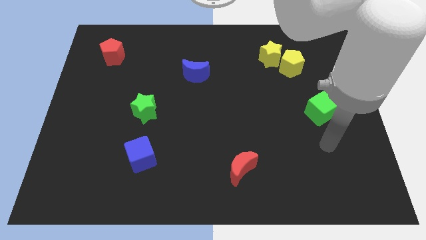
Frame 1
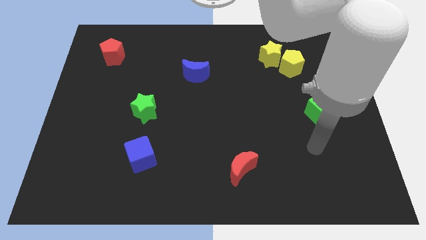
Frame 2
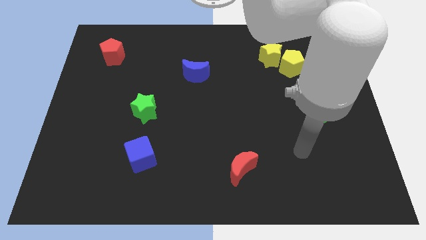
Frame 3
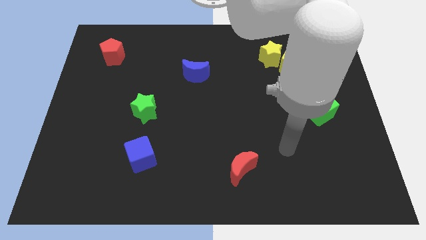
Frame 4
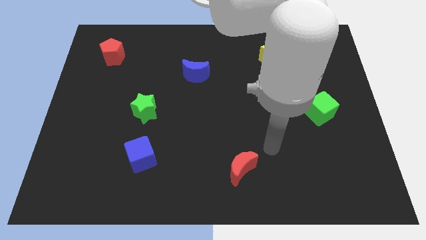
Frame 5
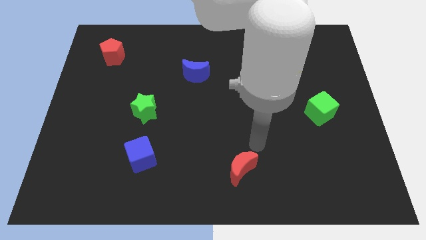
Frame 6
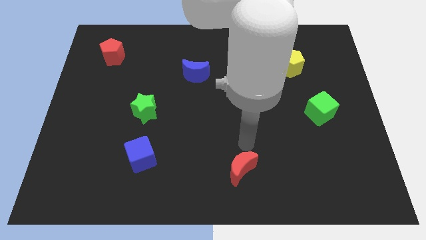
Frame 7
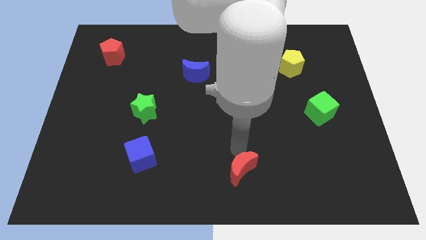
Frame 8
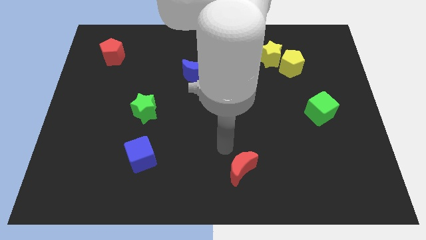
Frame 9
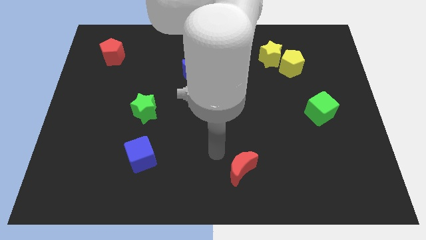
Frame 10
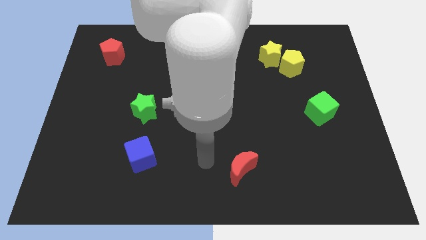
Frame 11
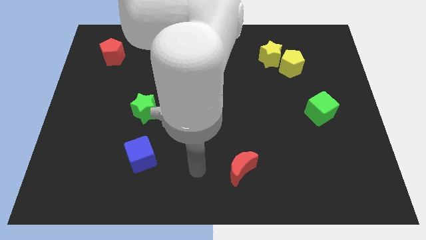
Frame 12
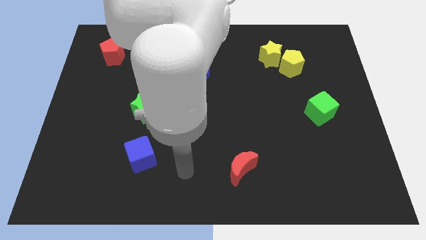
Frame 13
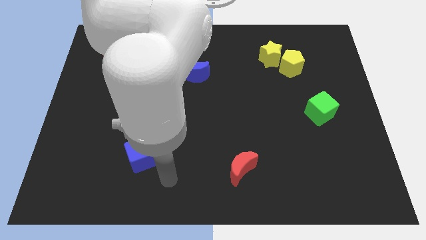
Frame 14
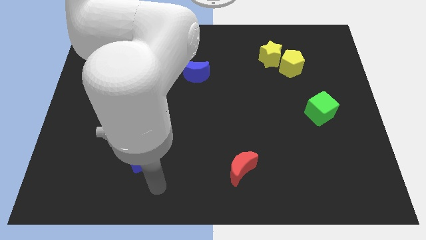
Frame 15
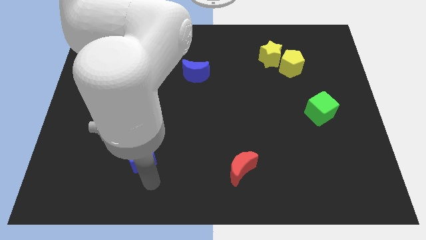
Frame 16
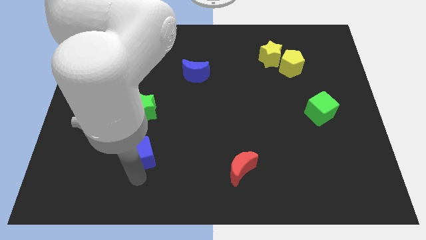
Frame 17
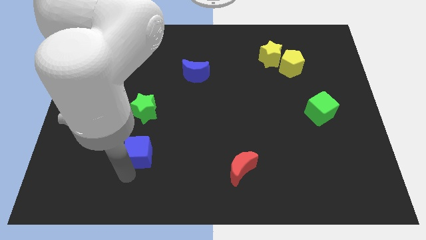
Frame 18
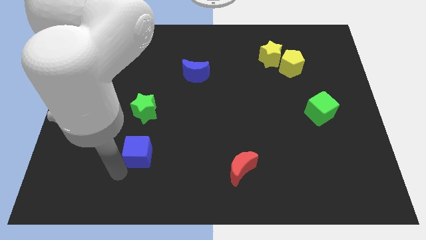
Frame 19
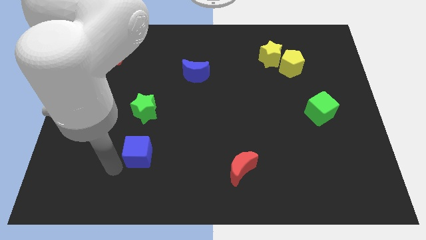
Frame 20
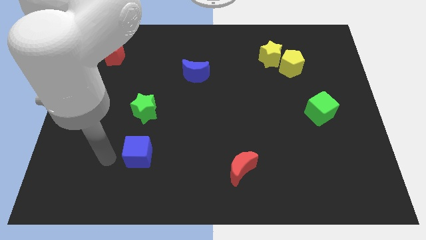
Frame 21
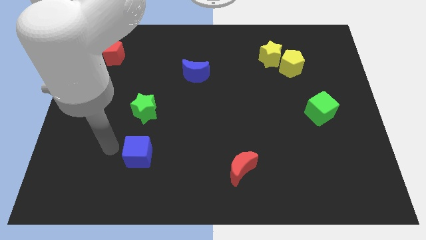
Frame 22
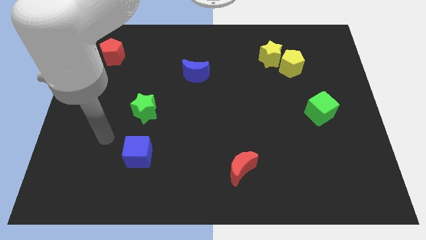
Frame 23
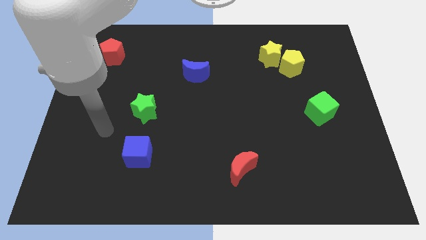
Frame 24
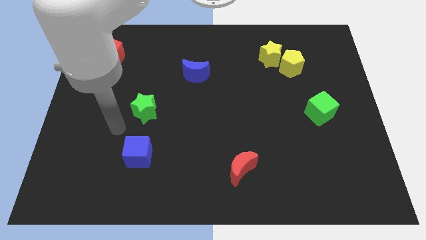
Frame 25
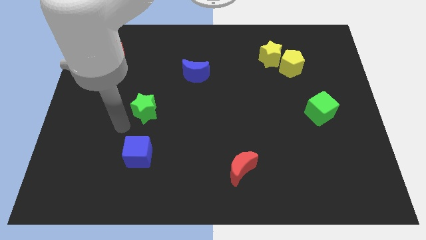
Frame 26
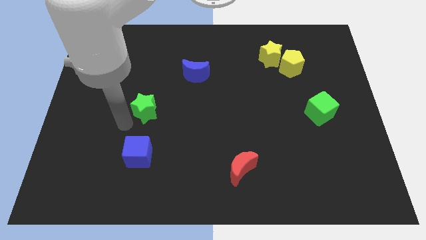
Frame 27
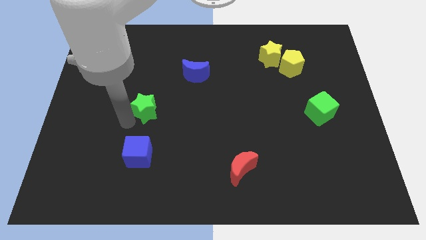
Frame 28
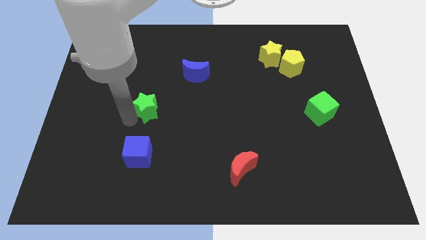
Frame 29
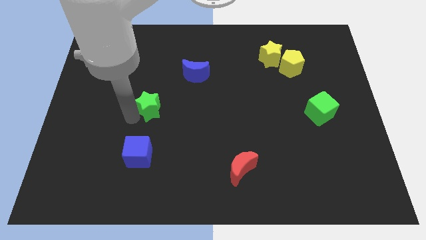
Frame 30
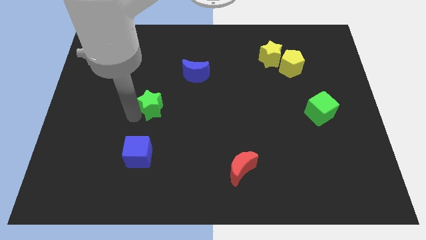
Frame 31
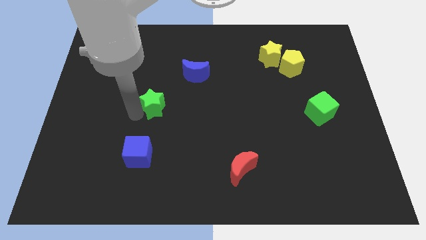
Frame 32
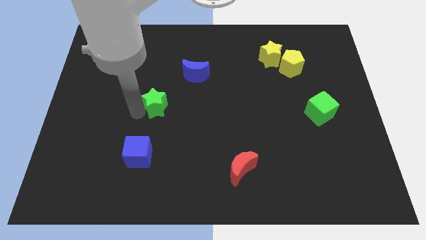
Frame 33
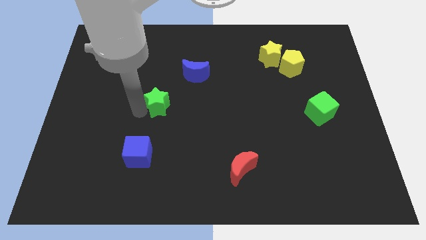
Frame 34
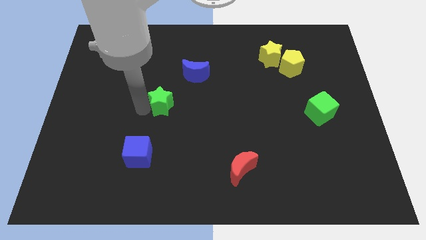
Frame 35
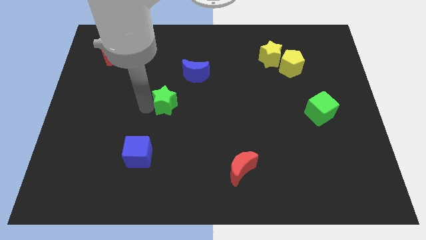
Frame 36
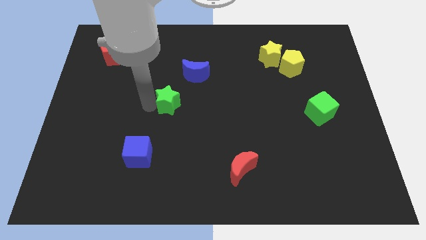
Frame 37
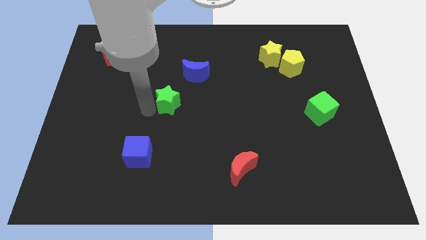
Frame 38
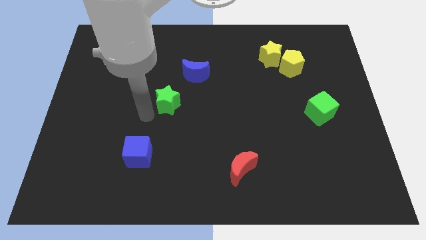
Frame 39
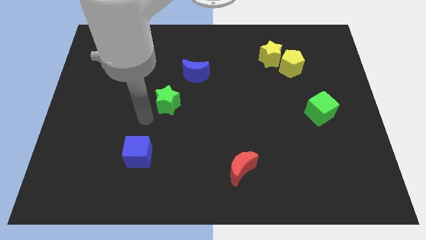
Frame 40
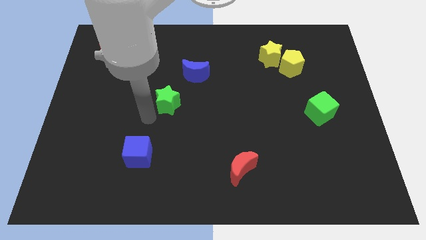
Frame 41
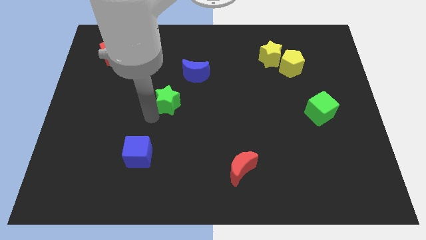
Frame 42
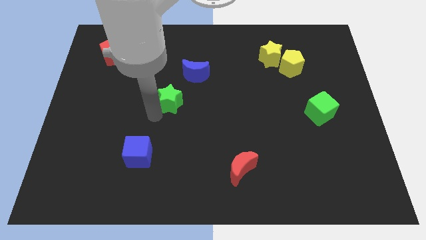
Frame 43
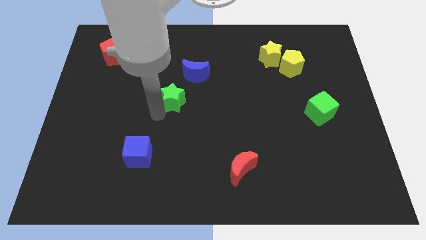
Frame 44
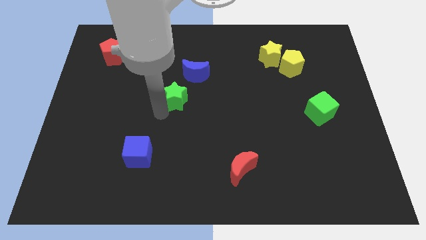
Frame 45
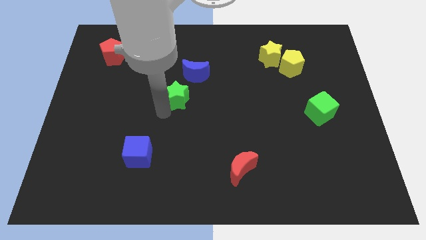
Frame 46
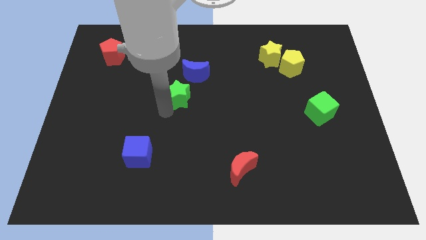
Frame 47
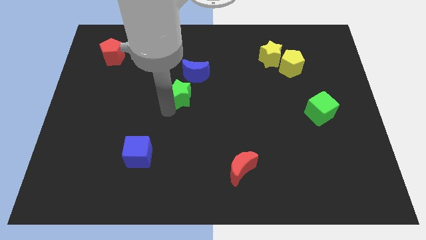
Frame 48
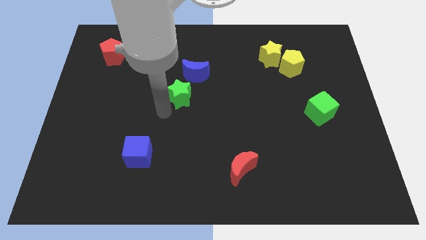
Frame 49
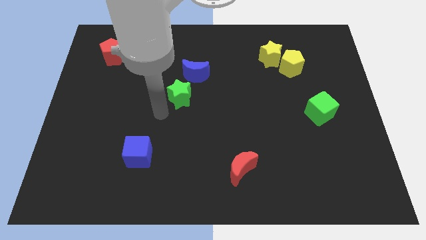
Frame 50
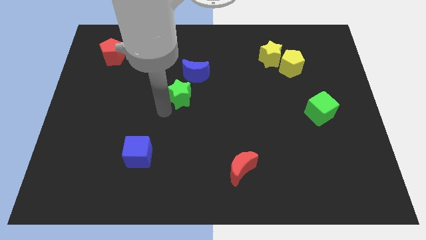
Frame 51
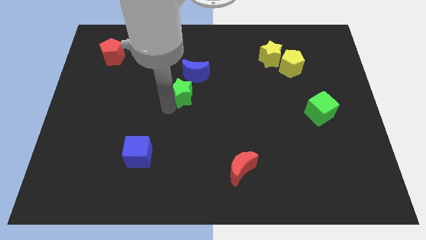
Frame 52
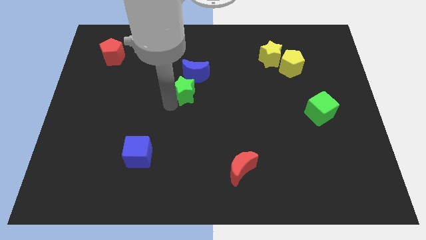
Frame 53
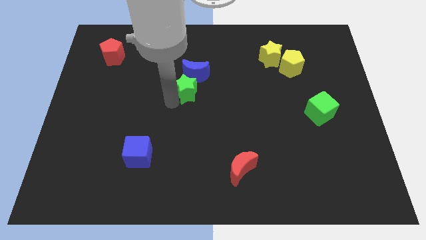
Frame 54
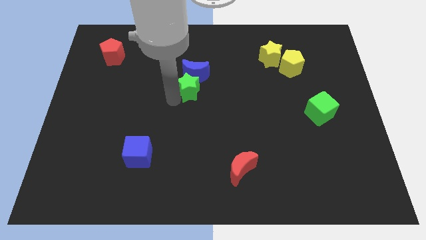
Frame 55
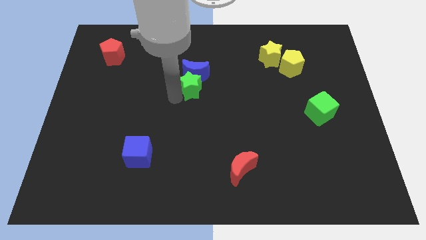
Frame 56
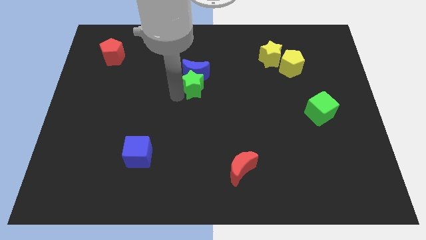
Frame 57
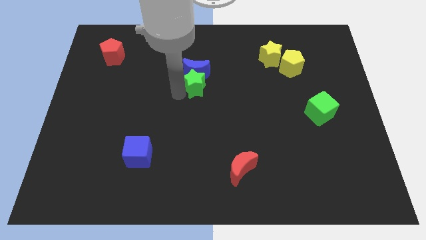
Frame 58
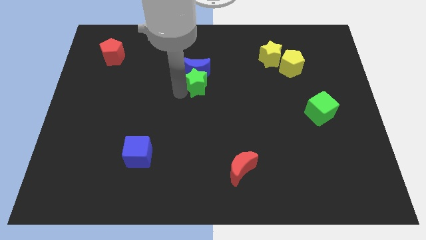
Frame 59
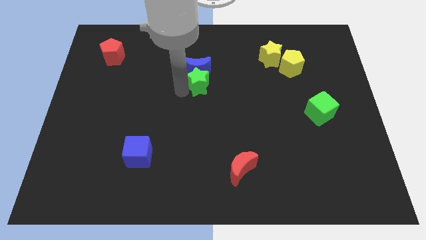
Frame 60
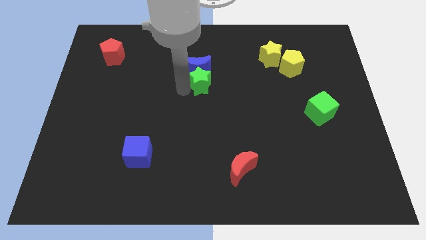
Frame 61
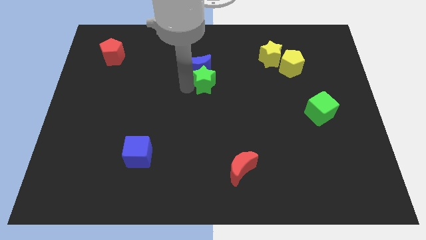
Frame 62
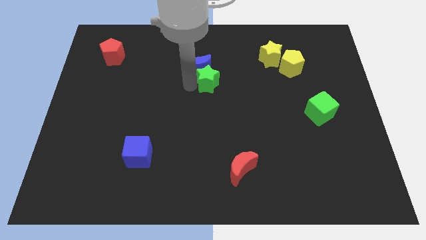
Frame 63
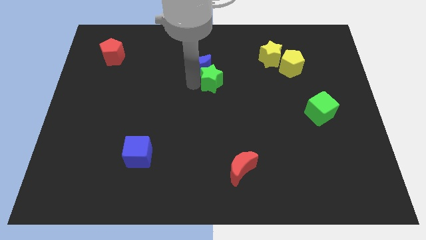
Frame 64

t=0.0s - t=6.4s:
slide the green star right of the blue moon

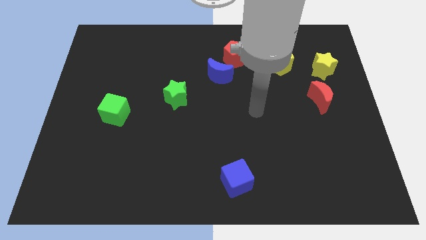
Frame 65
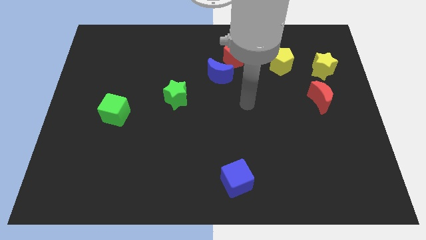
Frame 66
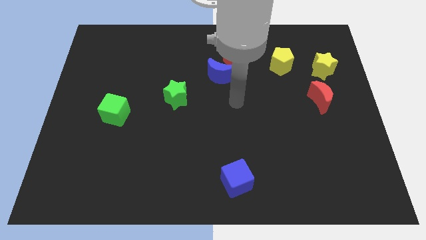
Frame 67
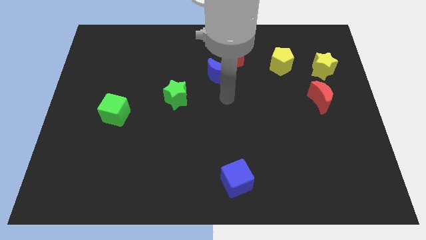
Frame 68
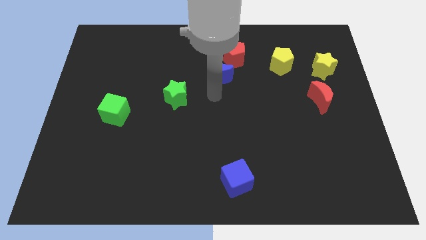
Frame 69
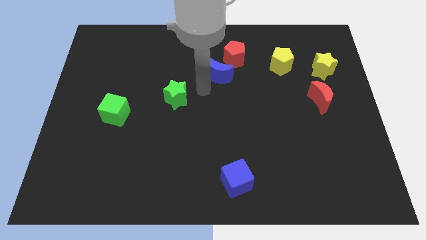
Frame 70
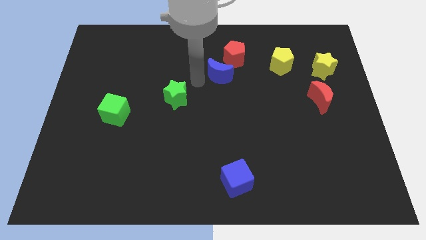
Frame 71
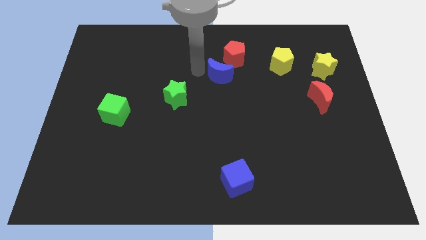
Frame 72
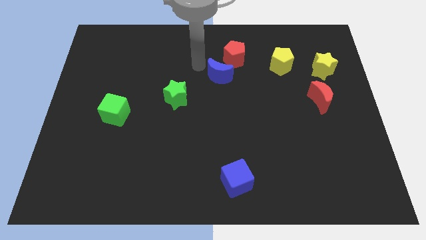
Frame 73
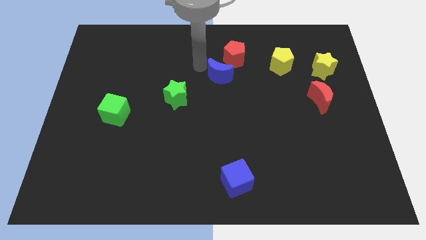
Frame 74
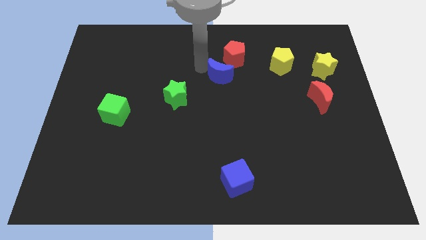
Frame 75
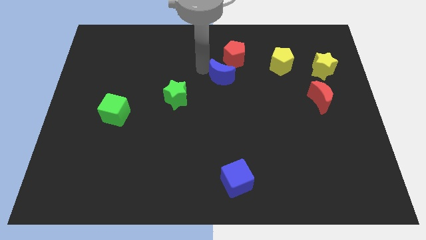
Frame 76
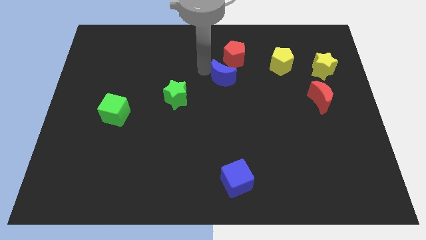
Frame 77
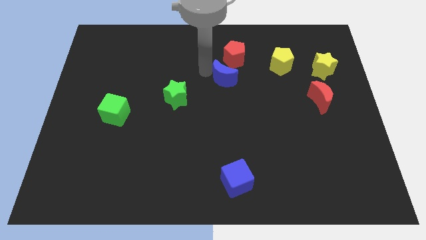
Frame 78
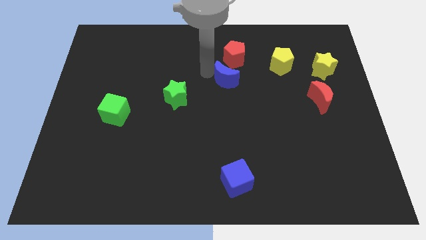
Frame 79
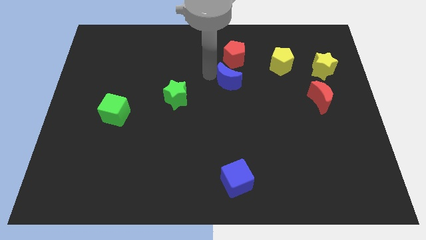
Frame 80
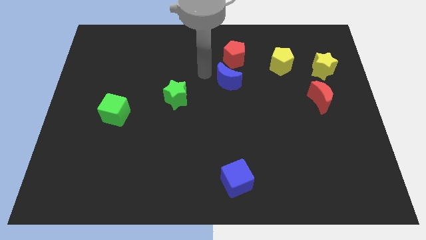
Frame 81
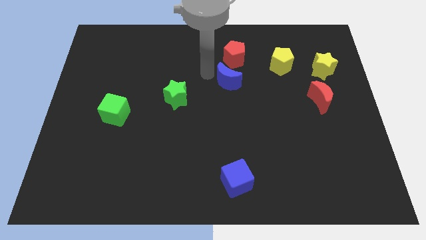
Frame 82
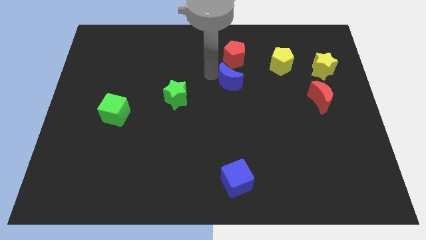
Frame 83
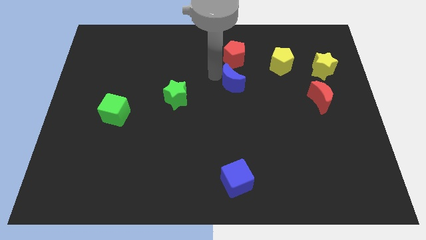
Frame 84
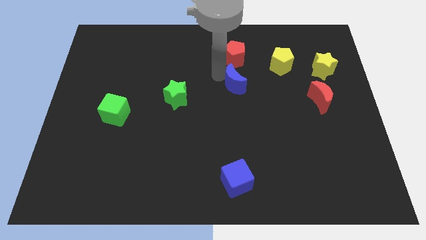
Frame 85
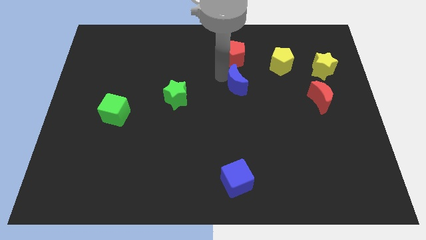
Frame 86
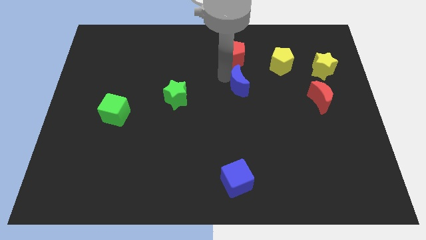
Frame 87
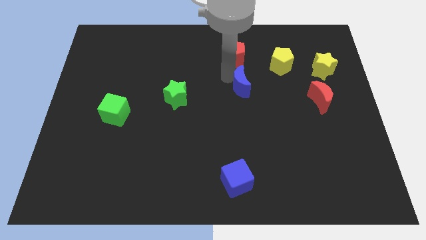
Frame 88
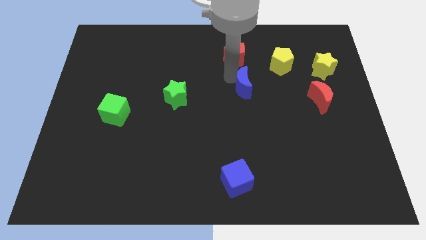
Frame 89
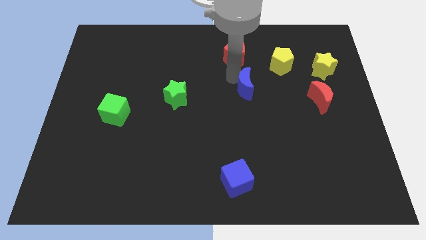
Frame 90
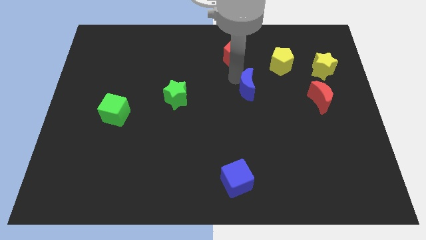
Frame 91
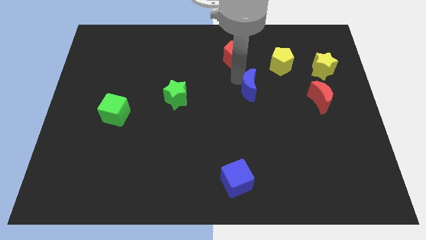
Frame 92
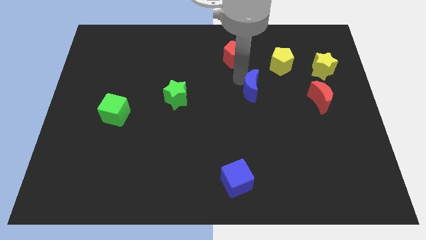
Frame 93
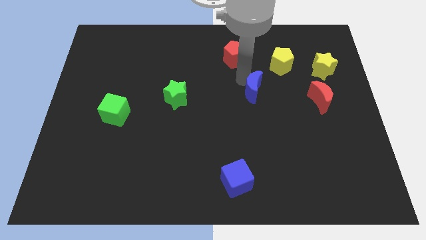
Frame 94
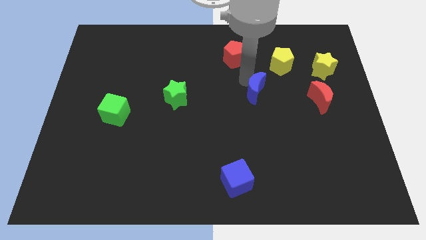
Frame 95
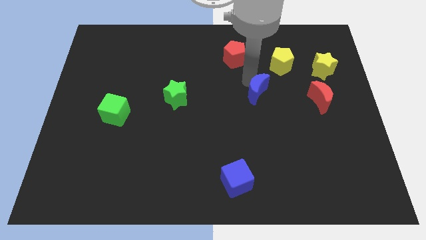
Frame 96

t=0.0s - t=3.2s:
move the blue moon to the left side of the red moon
